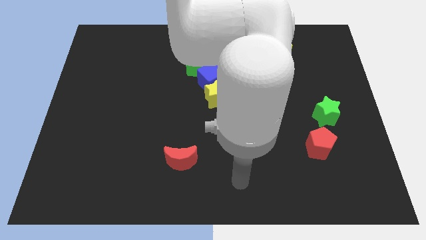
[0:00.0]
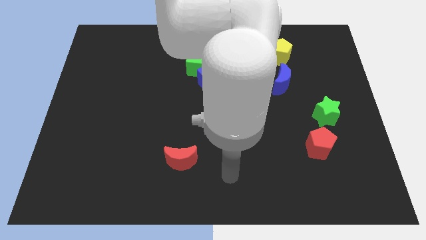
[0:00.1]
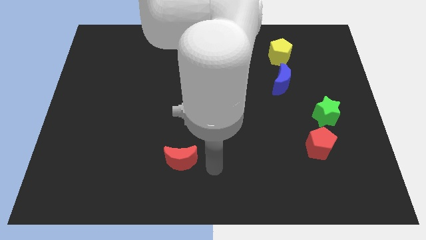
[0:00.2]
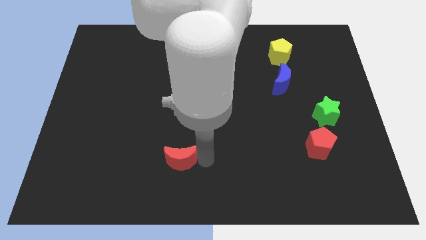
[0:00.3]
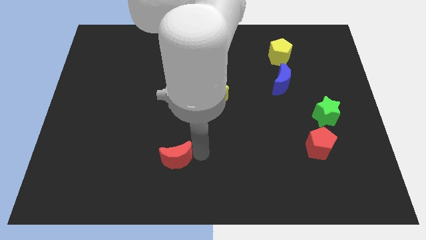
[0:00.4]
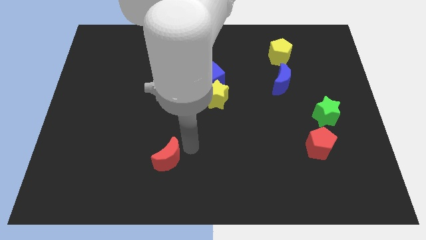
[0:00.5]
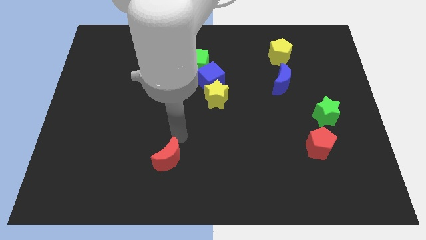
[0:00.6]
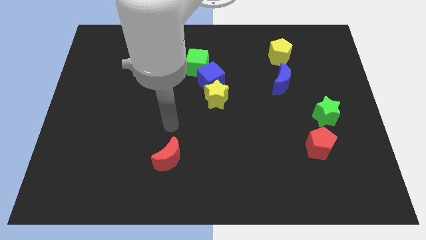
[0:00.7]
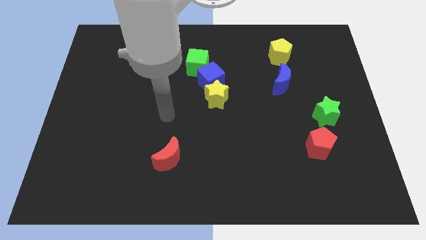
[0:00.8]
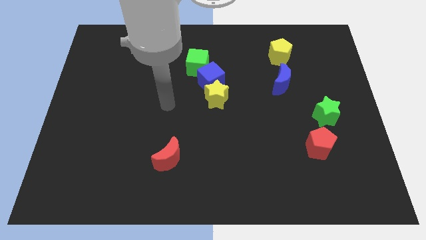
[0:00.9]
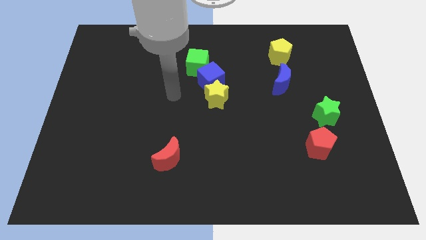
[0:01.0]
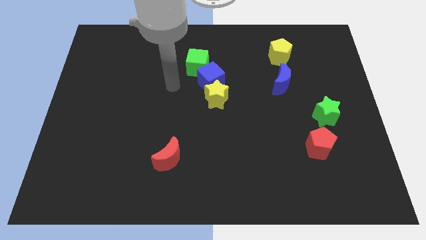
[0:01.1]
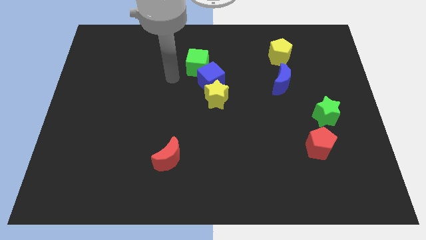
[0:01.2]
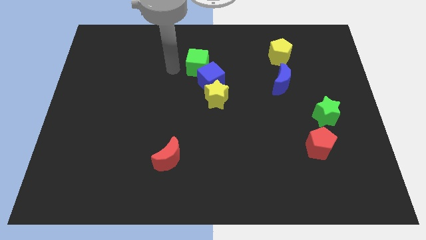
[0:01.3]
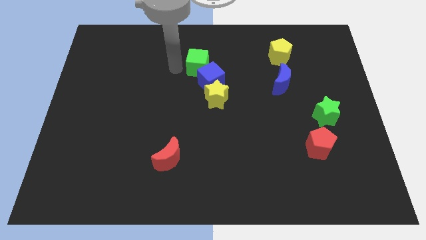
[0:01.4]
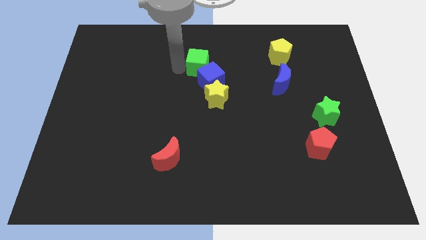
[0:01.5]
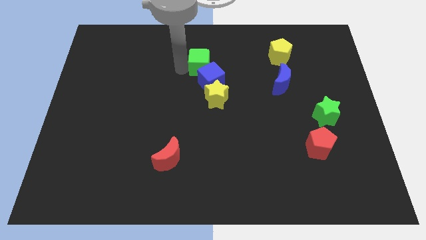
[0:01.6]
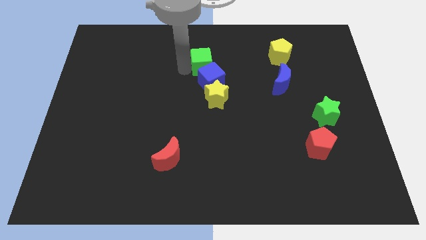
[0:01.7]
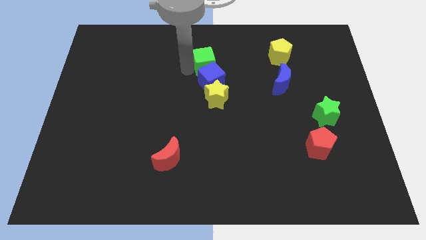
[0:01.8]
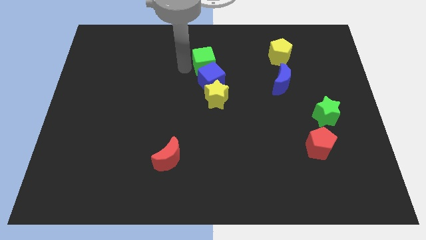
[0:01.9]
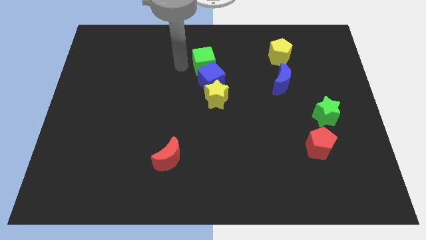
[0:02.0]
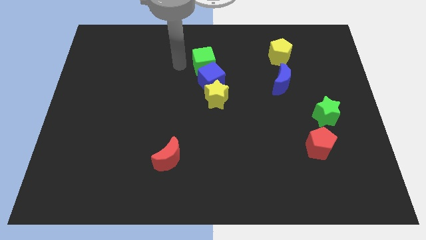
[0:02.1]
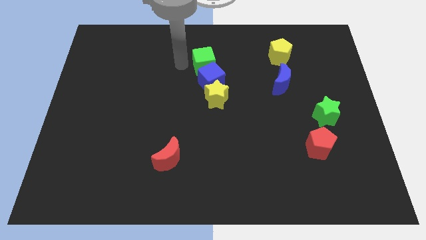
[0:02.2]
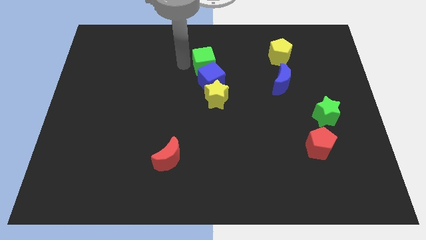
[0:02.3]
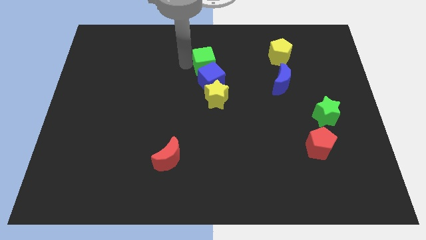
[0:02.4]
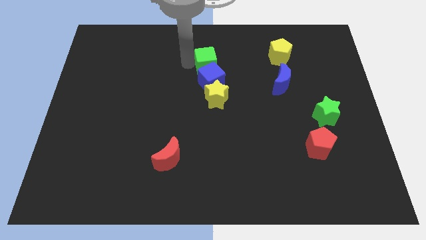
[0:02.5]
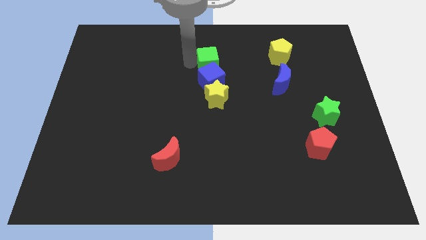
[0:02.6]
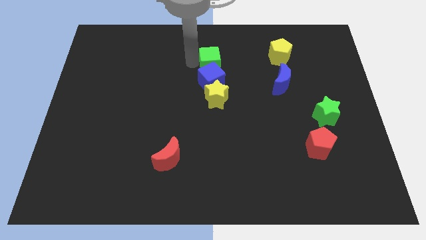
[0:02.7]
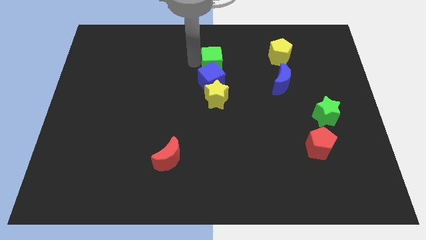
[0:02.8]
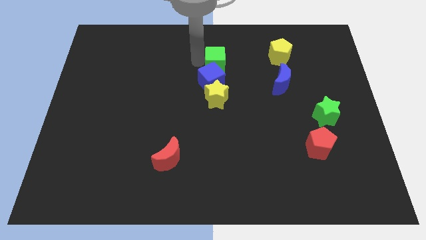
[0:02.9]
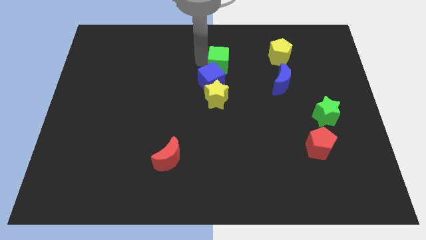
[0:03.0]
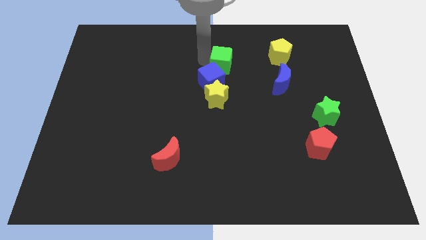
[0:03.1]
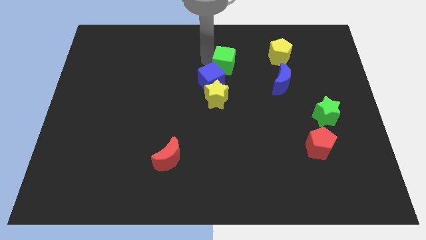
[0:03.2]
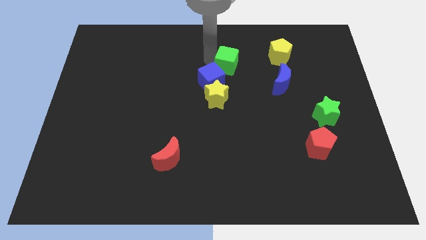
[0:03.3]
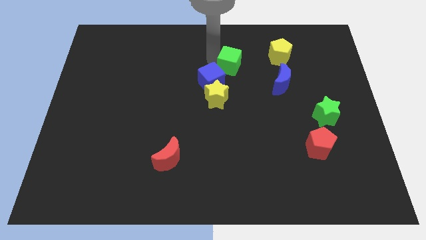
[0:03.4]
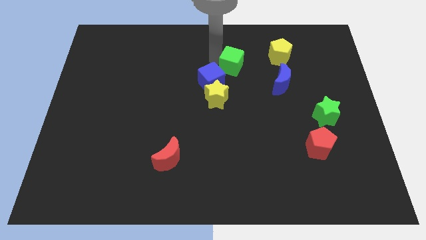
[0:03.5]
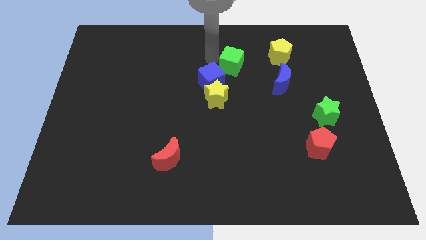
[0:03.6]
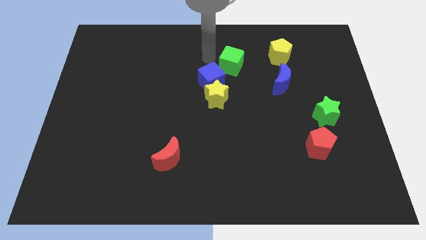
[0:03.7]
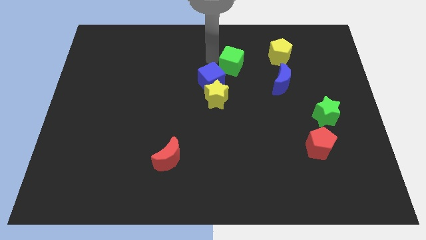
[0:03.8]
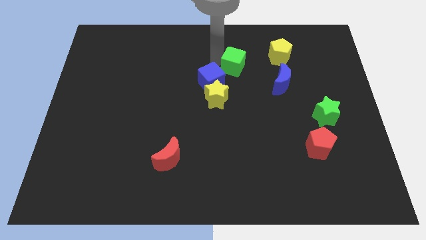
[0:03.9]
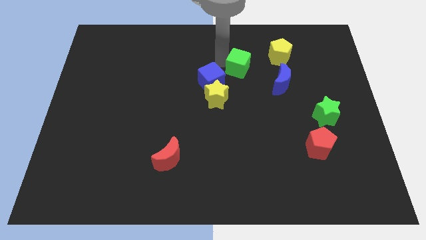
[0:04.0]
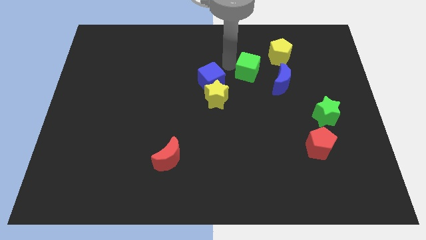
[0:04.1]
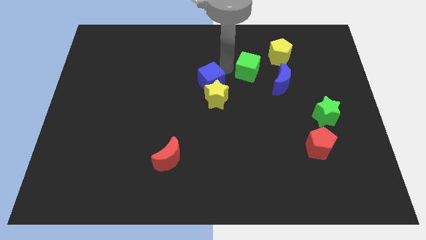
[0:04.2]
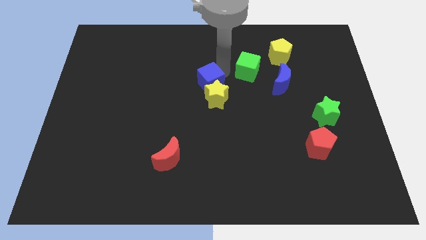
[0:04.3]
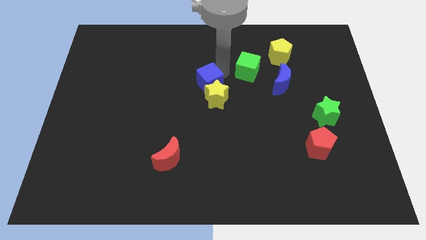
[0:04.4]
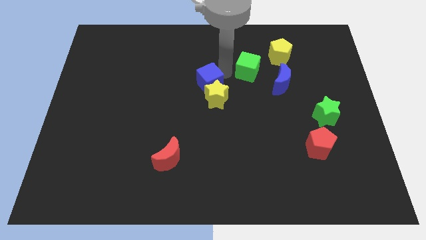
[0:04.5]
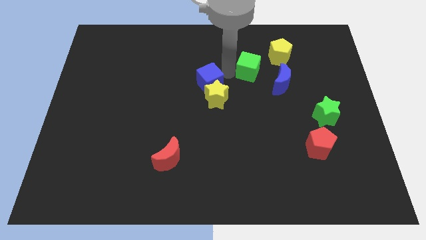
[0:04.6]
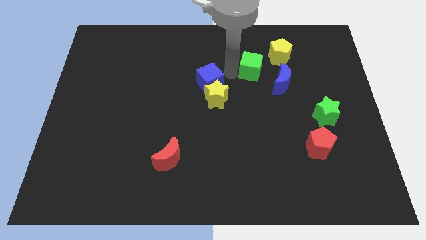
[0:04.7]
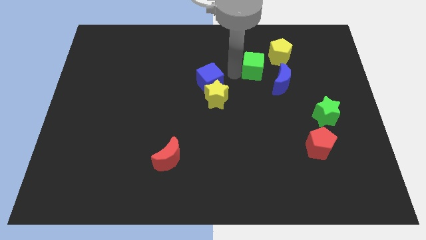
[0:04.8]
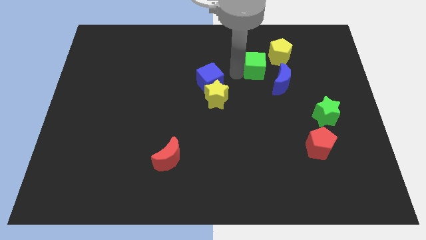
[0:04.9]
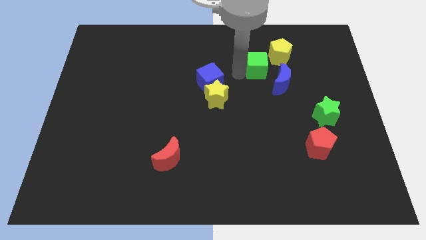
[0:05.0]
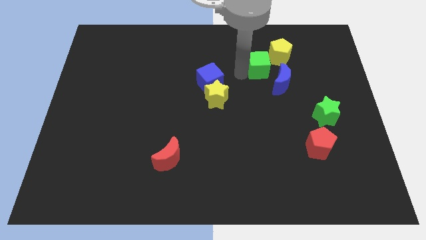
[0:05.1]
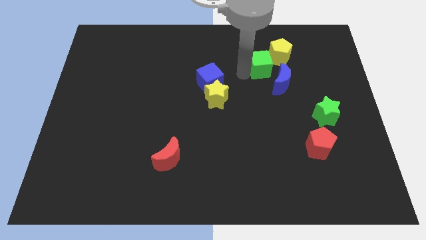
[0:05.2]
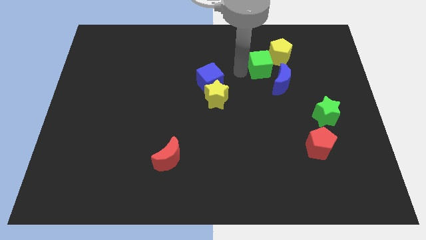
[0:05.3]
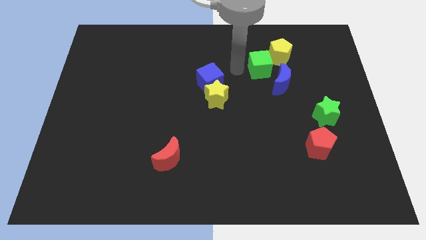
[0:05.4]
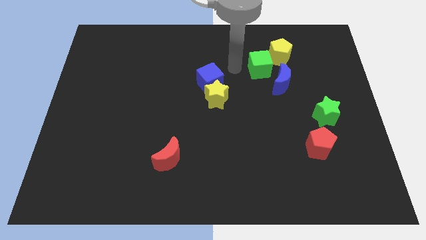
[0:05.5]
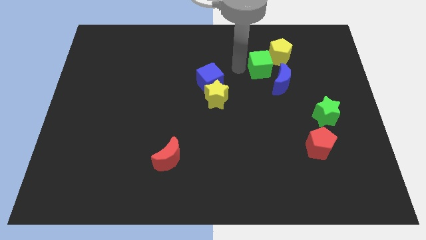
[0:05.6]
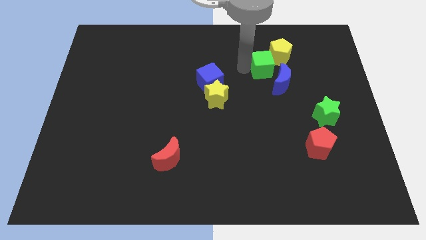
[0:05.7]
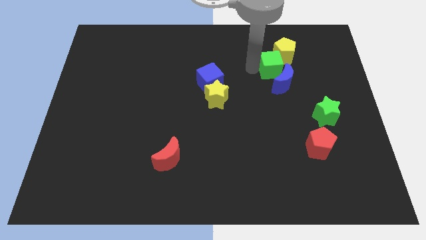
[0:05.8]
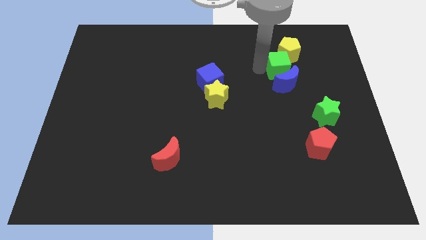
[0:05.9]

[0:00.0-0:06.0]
push the green cube right

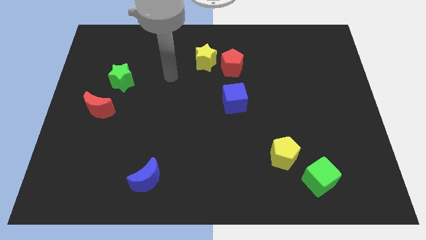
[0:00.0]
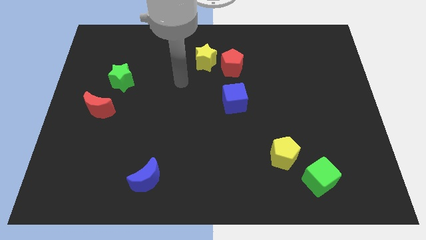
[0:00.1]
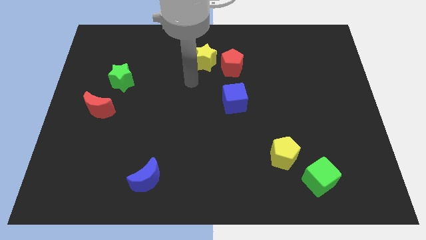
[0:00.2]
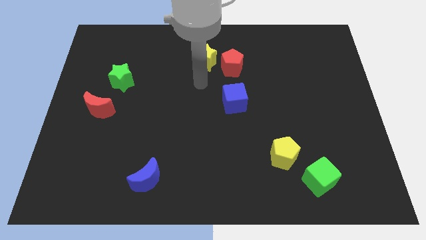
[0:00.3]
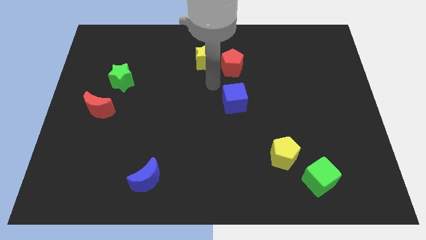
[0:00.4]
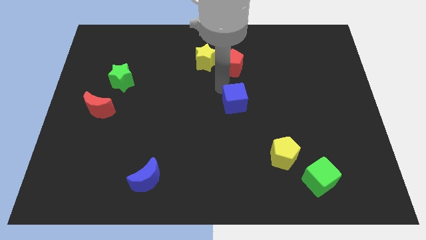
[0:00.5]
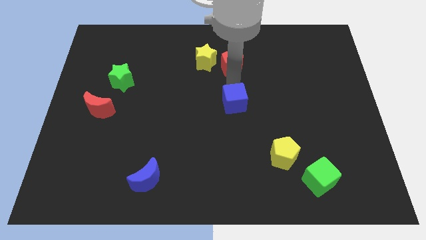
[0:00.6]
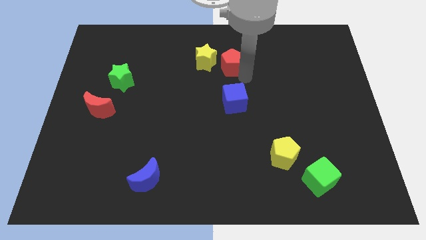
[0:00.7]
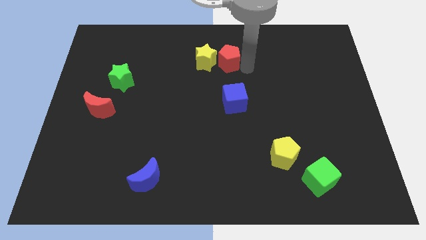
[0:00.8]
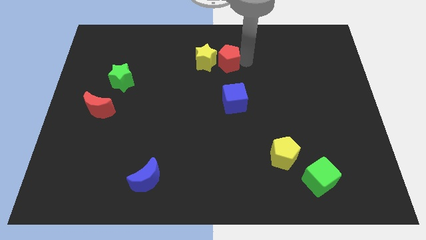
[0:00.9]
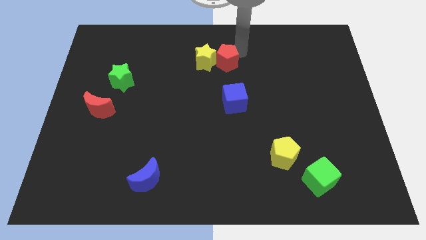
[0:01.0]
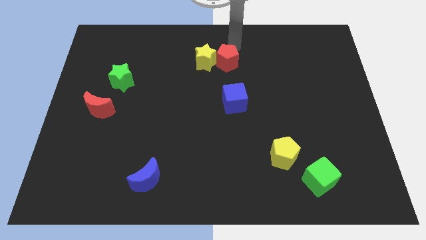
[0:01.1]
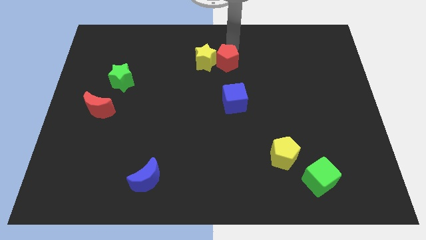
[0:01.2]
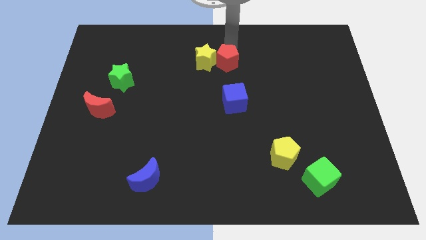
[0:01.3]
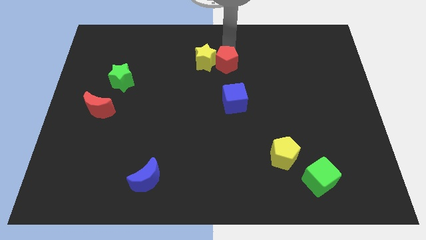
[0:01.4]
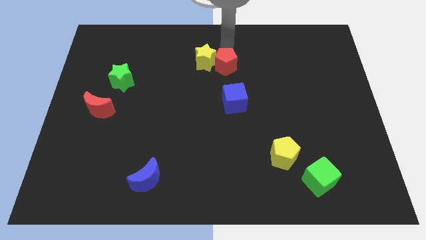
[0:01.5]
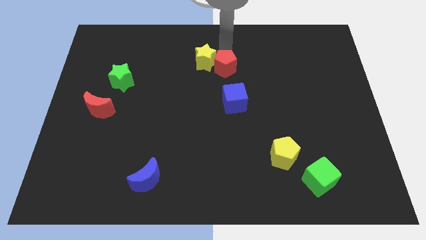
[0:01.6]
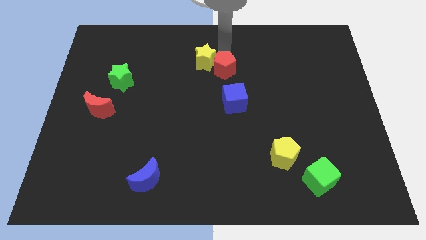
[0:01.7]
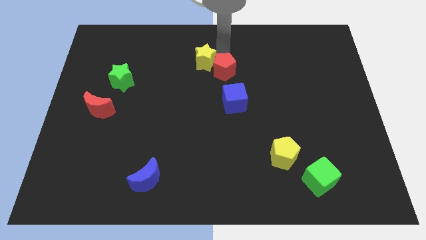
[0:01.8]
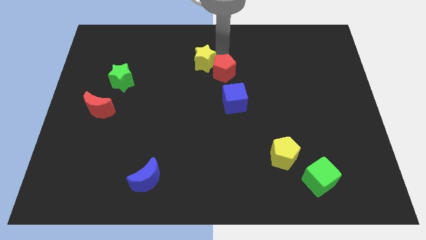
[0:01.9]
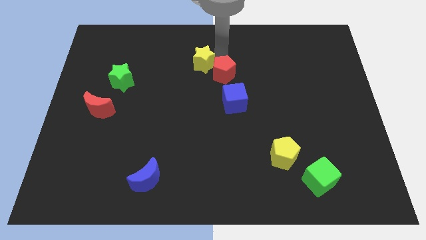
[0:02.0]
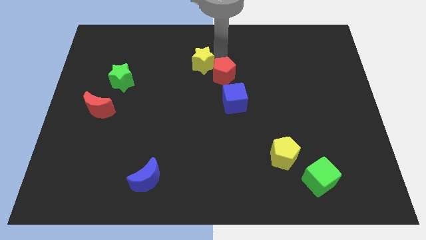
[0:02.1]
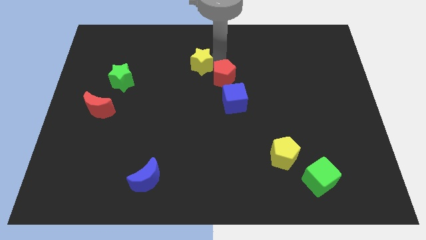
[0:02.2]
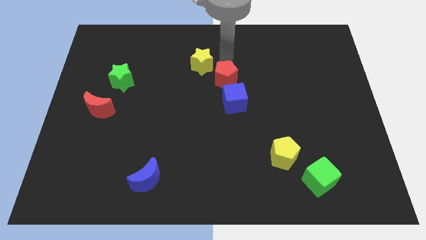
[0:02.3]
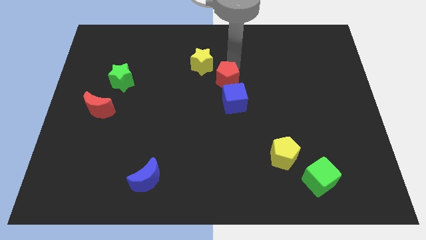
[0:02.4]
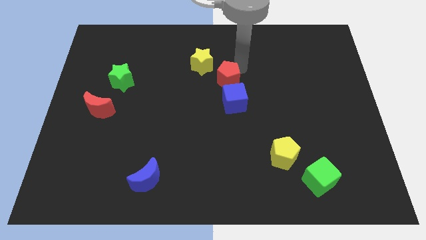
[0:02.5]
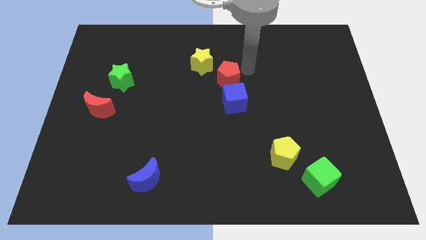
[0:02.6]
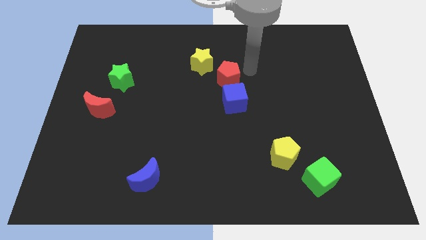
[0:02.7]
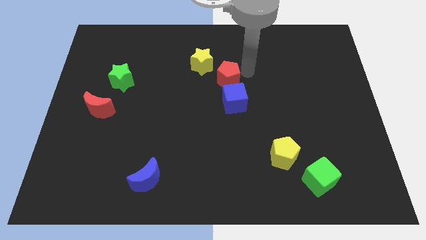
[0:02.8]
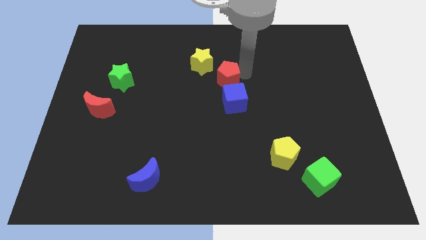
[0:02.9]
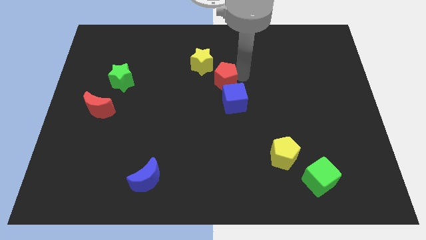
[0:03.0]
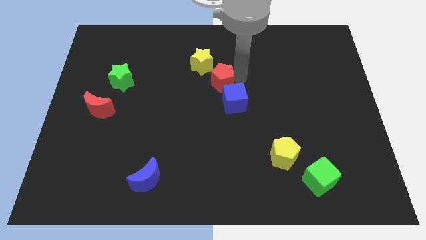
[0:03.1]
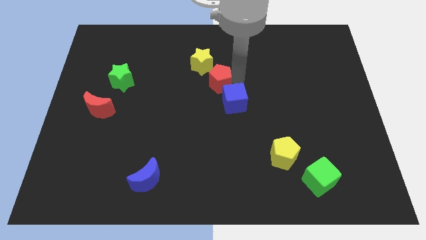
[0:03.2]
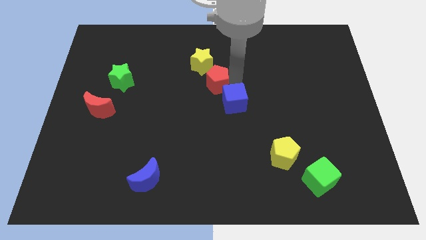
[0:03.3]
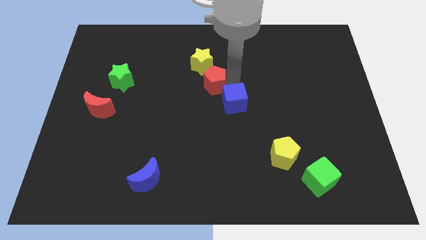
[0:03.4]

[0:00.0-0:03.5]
slightly push the red pentagon downwards and then left
